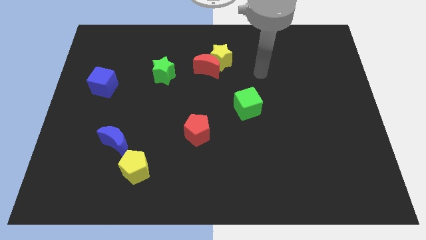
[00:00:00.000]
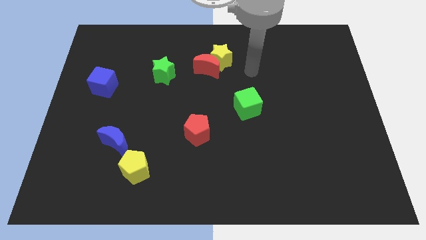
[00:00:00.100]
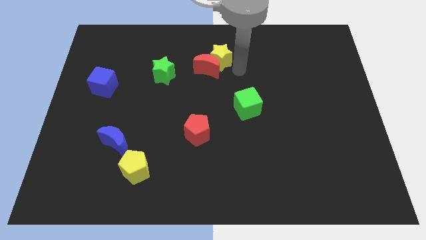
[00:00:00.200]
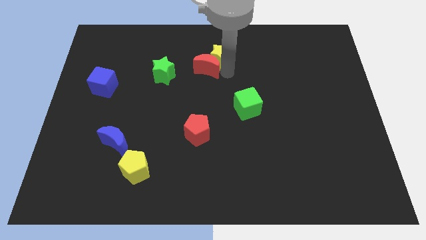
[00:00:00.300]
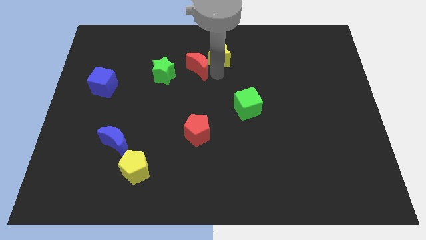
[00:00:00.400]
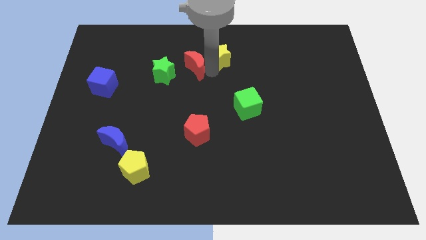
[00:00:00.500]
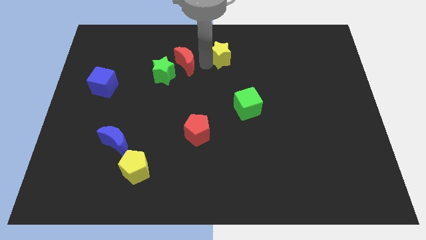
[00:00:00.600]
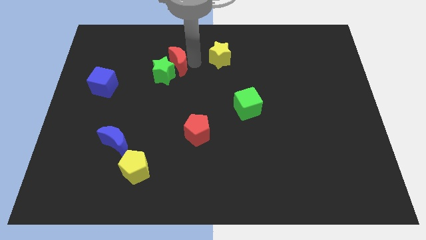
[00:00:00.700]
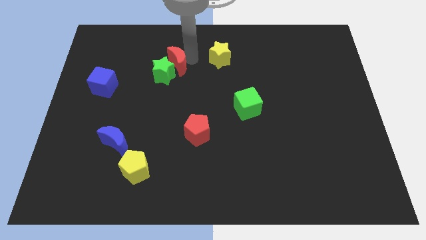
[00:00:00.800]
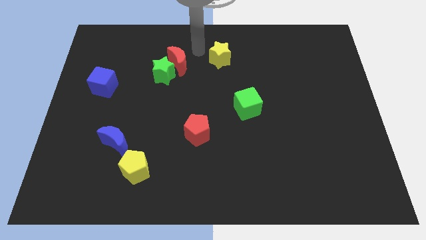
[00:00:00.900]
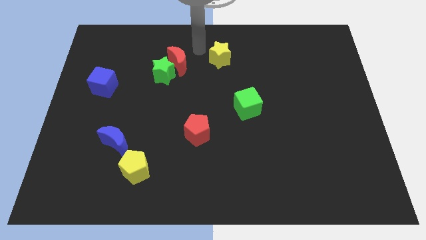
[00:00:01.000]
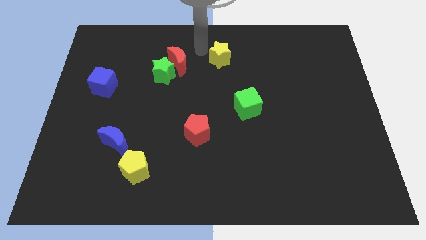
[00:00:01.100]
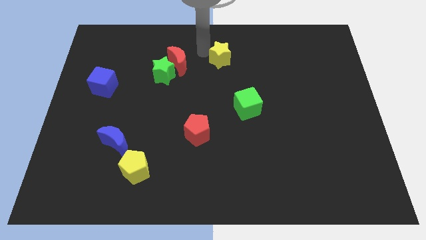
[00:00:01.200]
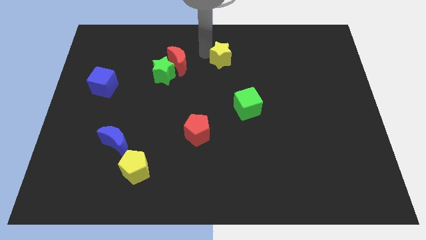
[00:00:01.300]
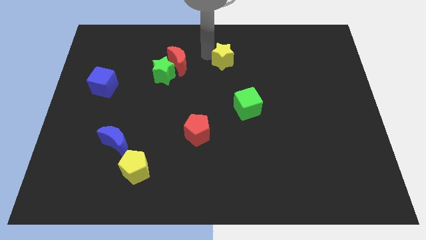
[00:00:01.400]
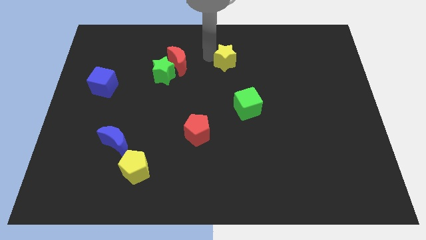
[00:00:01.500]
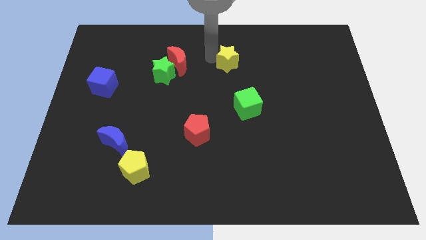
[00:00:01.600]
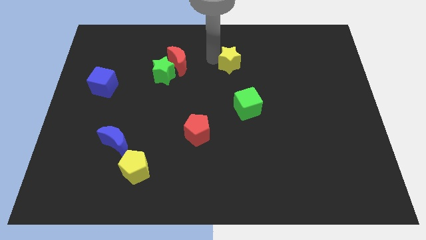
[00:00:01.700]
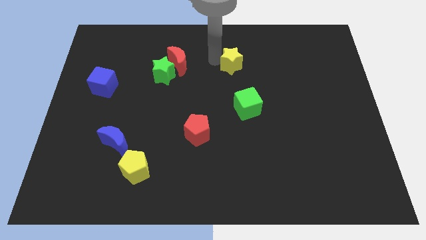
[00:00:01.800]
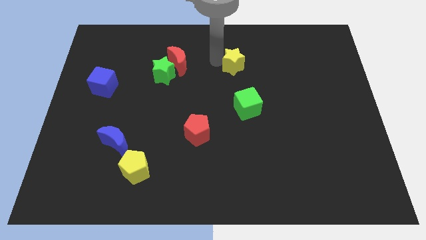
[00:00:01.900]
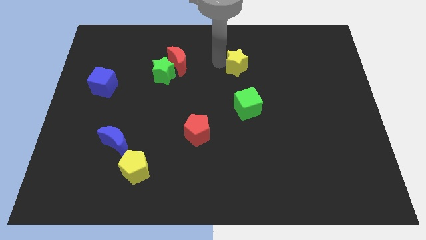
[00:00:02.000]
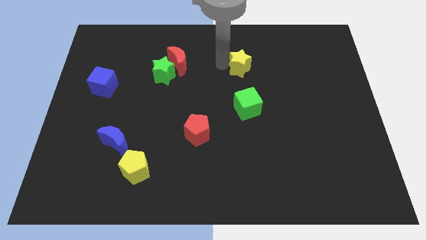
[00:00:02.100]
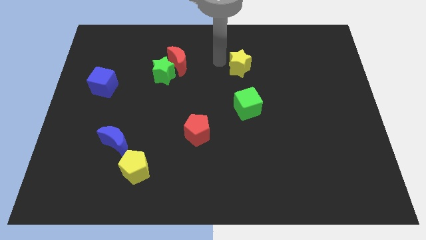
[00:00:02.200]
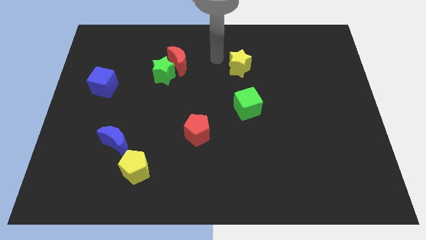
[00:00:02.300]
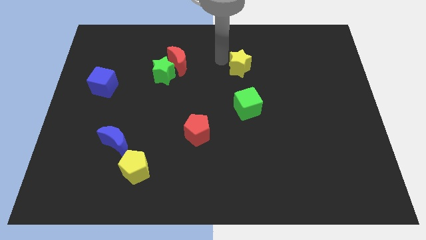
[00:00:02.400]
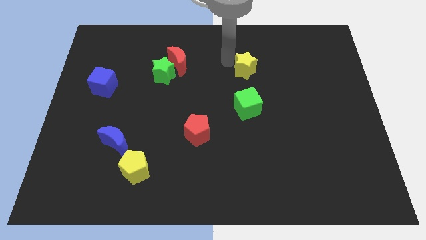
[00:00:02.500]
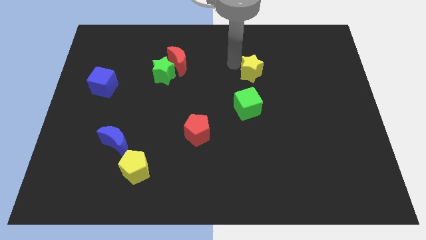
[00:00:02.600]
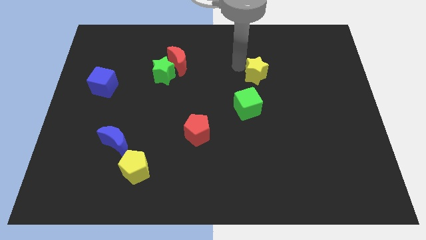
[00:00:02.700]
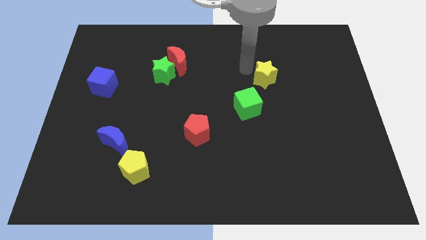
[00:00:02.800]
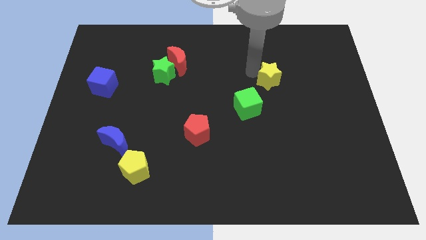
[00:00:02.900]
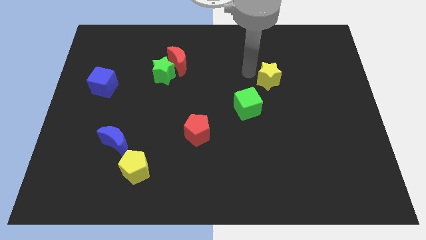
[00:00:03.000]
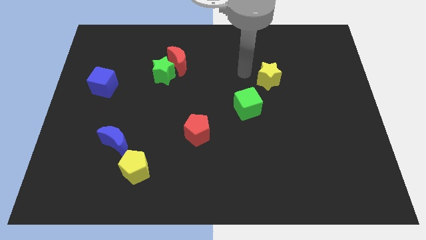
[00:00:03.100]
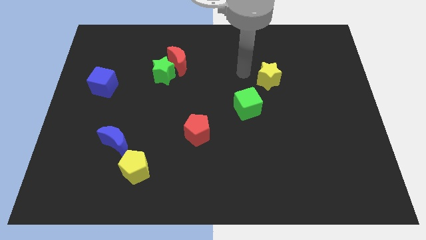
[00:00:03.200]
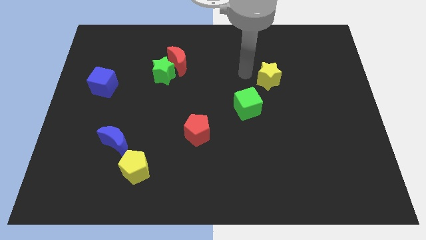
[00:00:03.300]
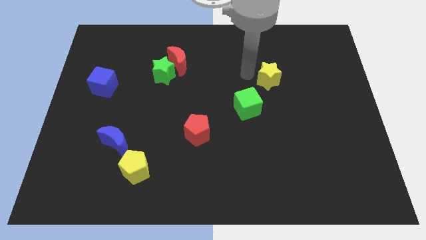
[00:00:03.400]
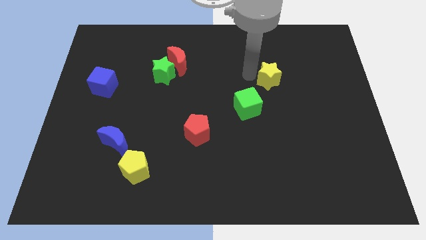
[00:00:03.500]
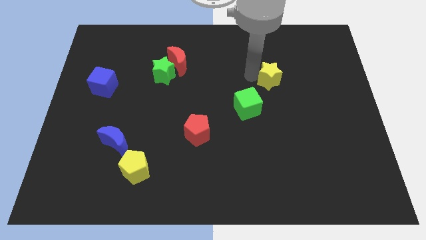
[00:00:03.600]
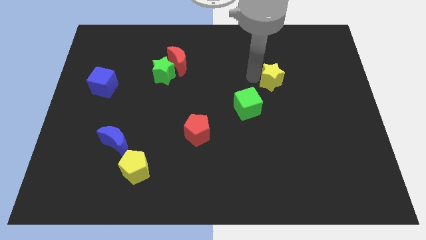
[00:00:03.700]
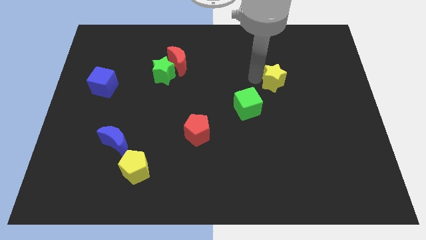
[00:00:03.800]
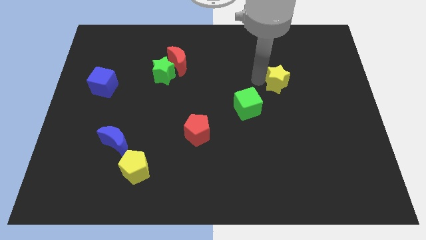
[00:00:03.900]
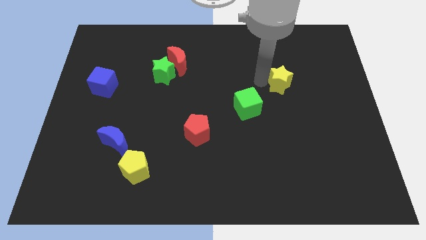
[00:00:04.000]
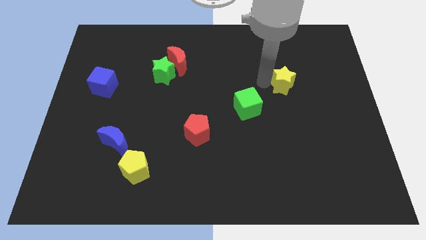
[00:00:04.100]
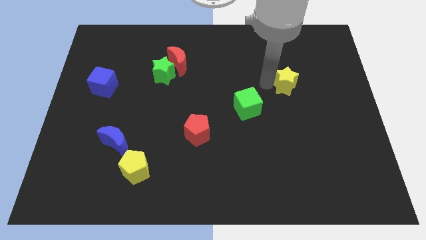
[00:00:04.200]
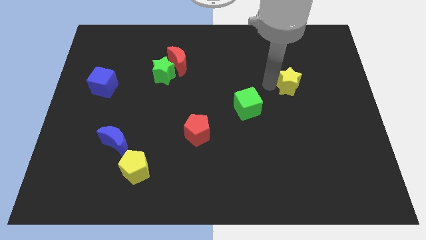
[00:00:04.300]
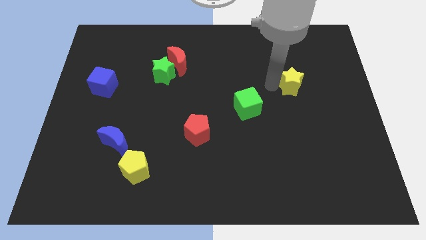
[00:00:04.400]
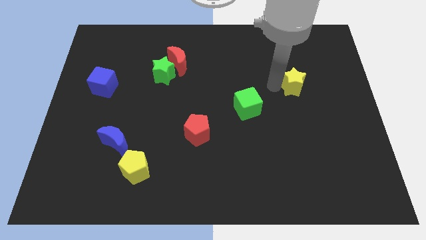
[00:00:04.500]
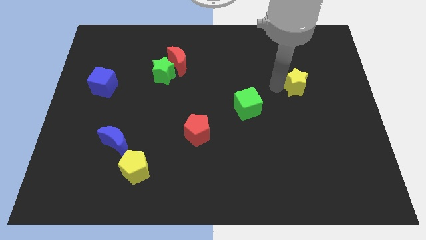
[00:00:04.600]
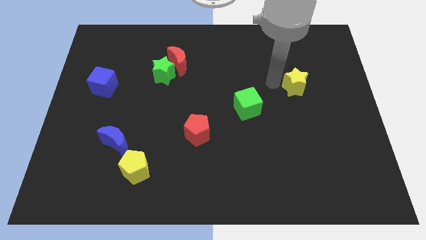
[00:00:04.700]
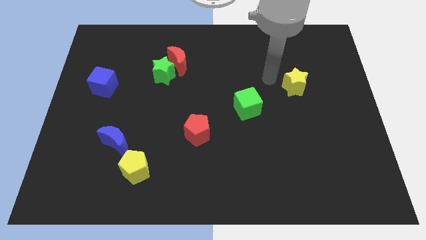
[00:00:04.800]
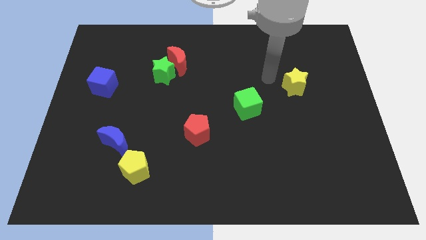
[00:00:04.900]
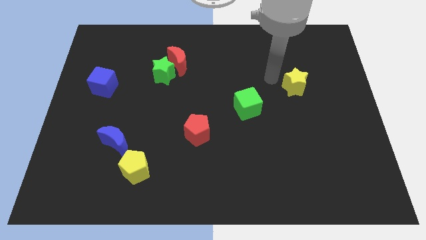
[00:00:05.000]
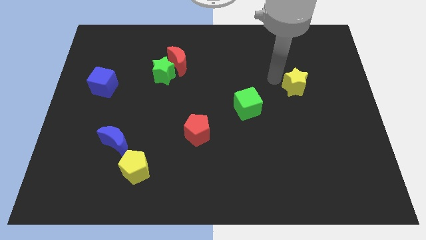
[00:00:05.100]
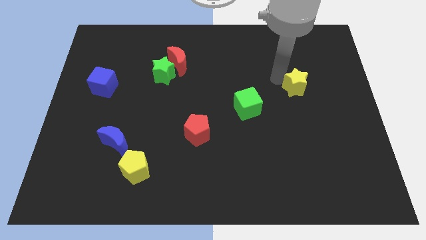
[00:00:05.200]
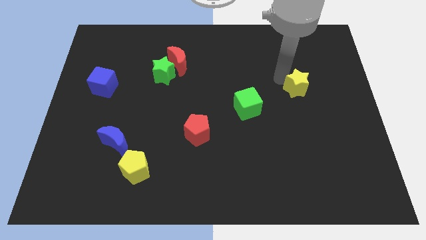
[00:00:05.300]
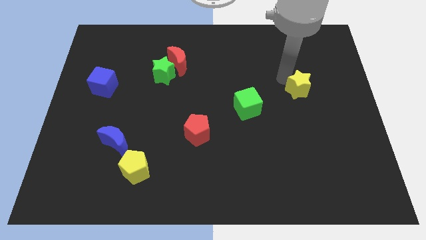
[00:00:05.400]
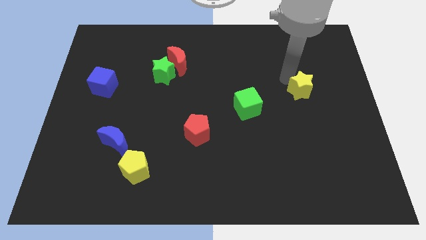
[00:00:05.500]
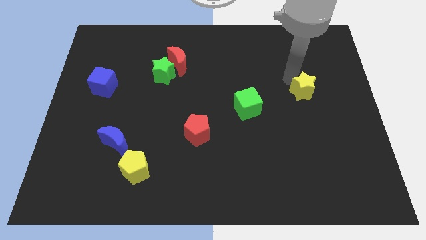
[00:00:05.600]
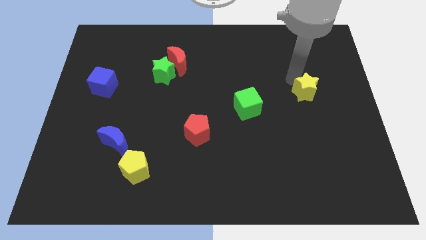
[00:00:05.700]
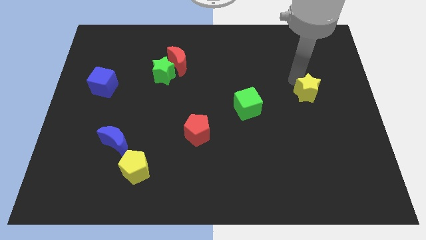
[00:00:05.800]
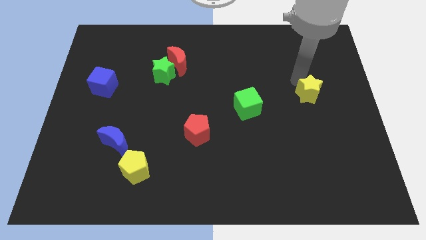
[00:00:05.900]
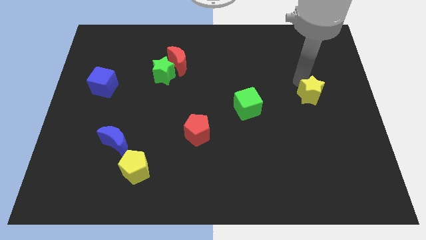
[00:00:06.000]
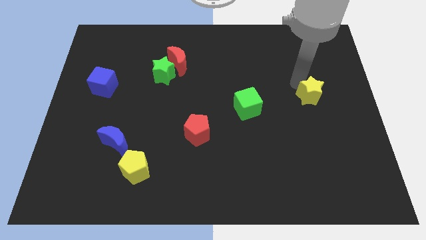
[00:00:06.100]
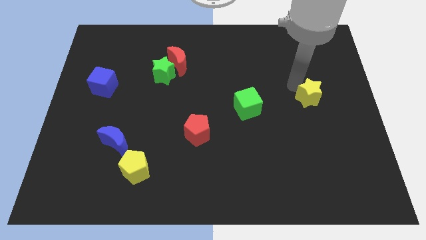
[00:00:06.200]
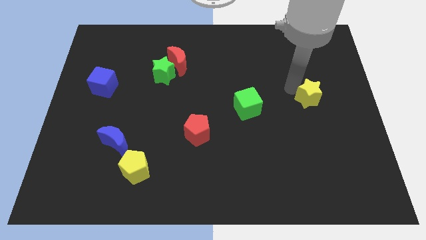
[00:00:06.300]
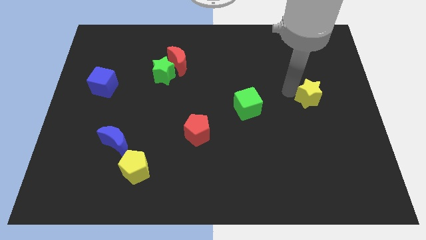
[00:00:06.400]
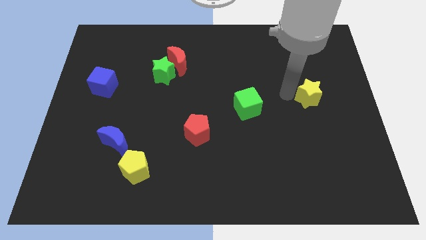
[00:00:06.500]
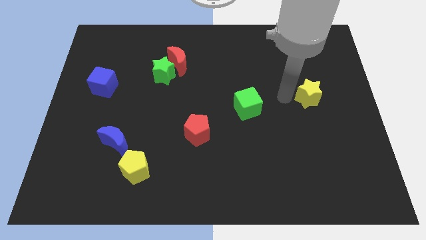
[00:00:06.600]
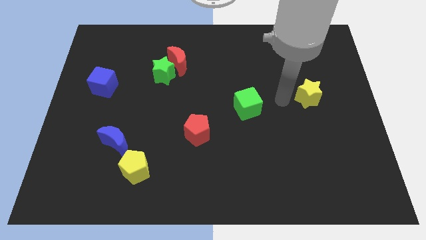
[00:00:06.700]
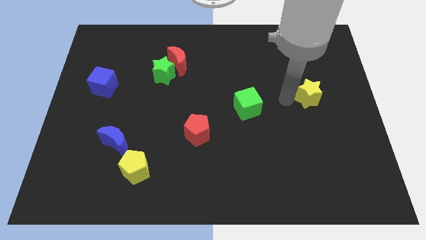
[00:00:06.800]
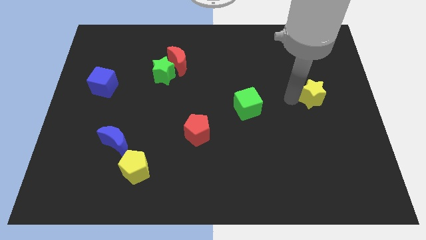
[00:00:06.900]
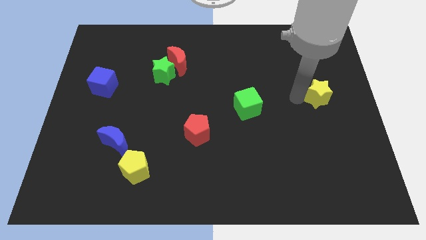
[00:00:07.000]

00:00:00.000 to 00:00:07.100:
move the yellow star to the right side
